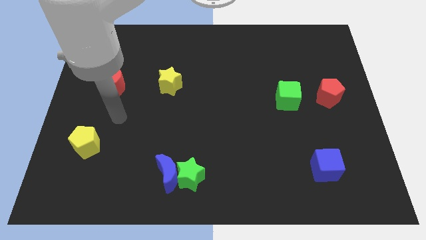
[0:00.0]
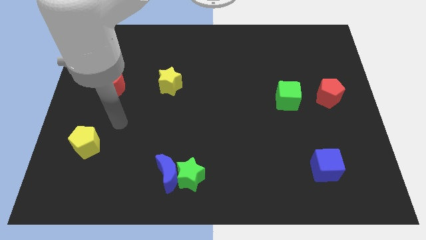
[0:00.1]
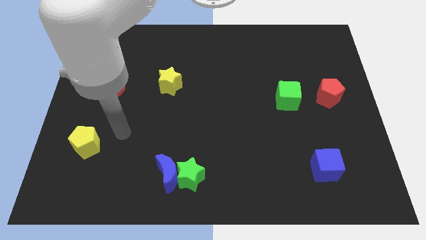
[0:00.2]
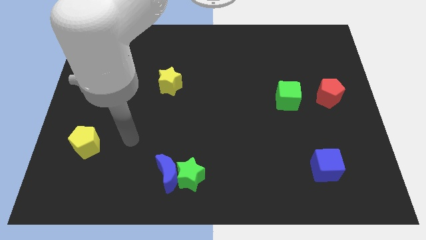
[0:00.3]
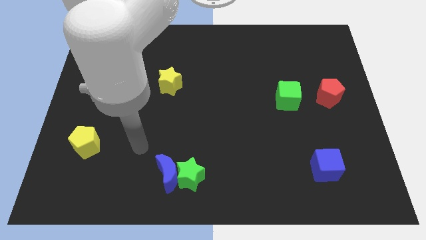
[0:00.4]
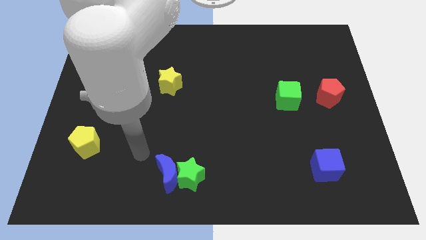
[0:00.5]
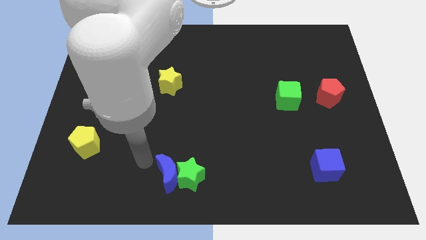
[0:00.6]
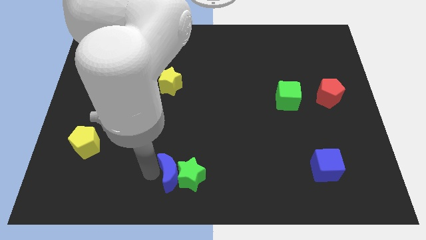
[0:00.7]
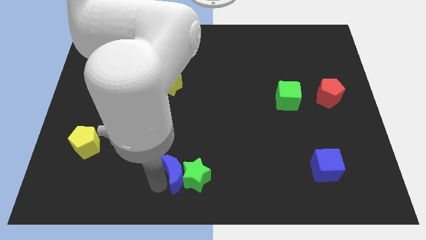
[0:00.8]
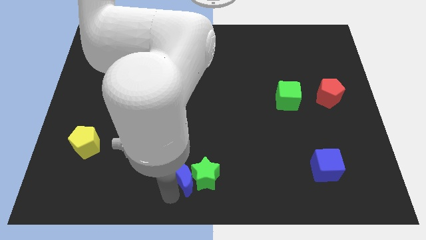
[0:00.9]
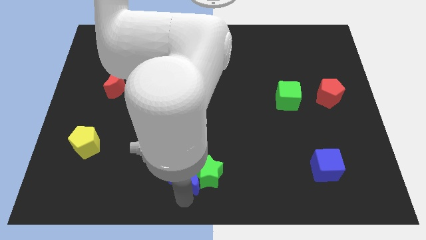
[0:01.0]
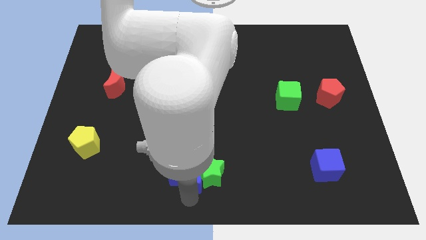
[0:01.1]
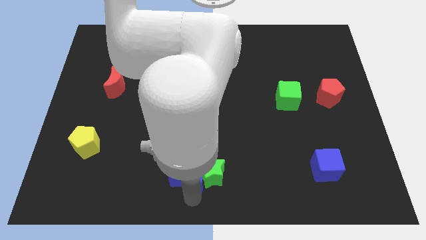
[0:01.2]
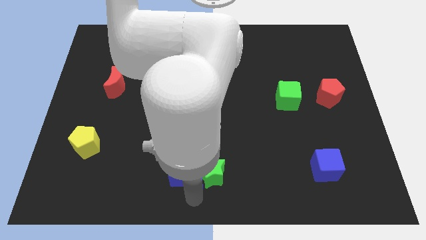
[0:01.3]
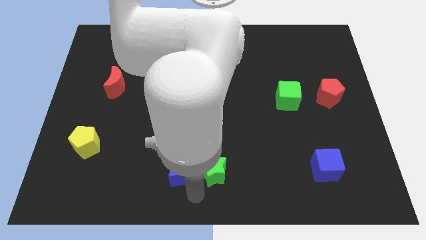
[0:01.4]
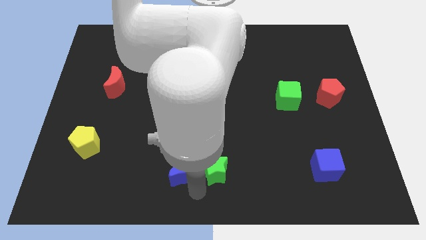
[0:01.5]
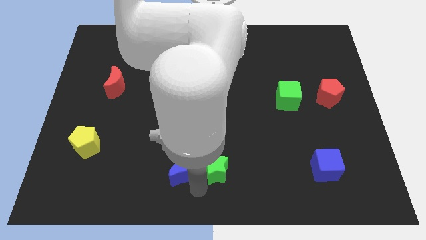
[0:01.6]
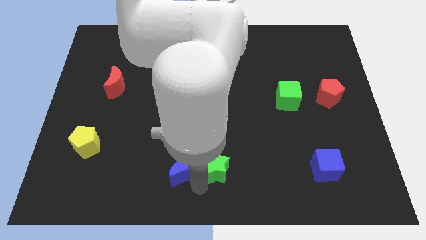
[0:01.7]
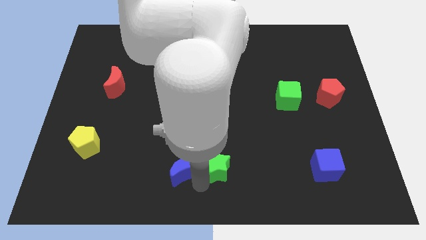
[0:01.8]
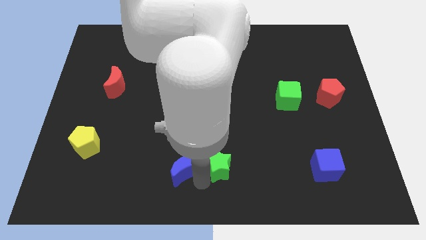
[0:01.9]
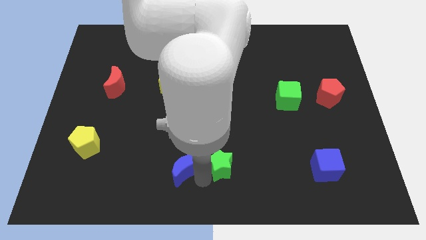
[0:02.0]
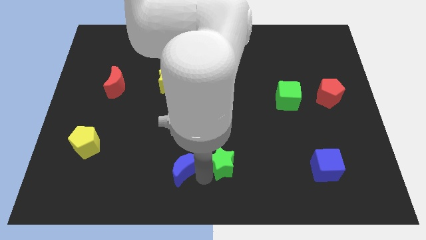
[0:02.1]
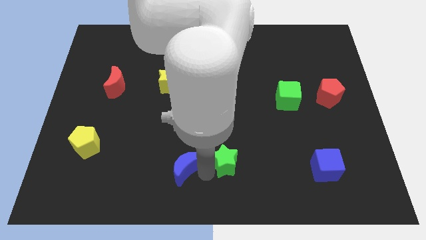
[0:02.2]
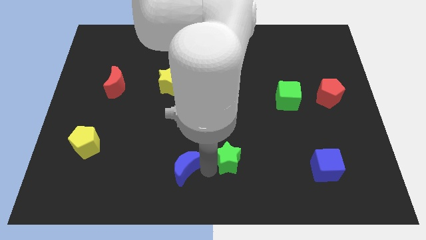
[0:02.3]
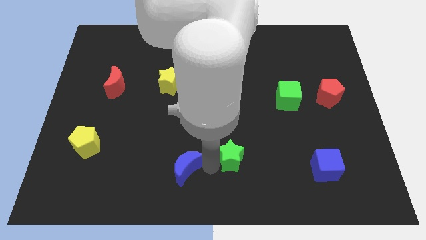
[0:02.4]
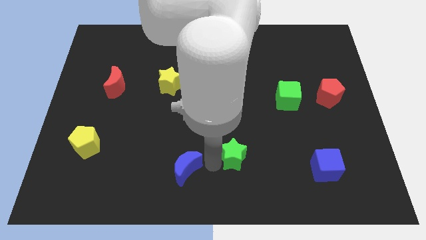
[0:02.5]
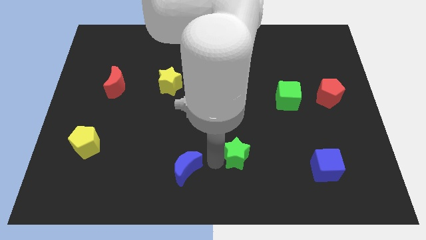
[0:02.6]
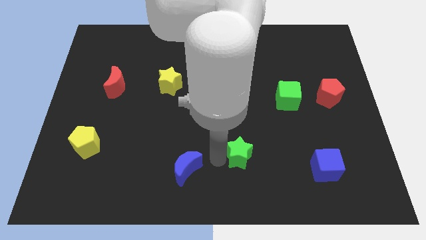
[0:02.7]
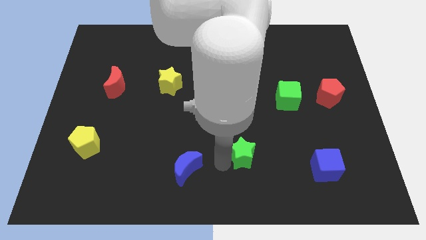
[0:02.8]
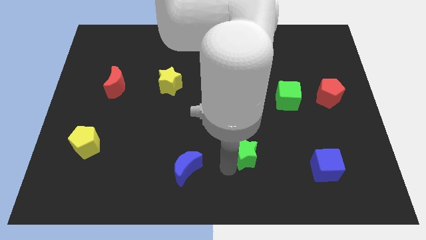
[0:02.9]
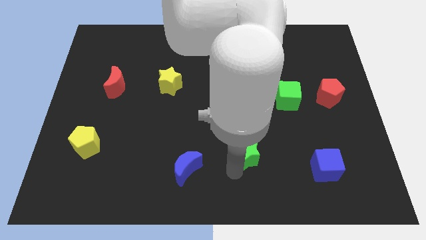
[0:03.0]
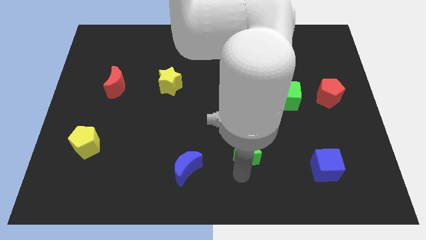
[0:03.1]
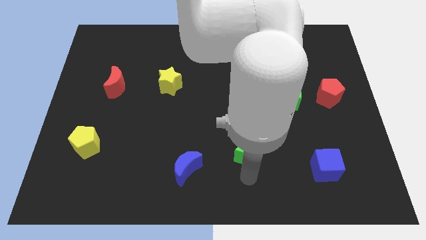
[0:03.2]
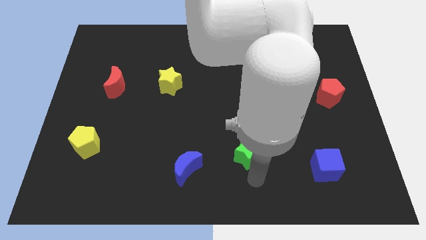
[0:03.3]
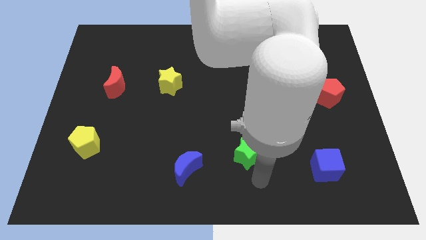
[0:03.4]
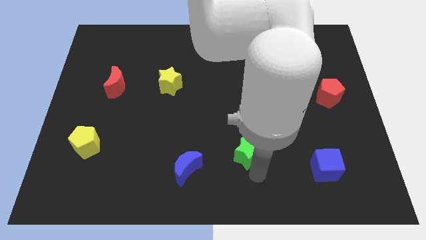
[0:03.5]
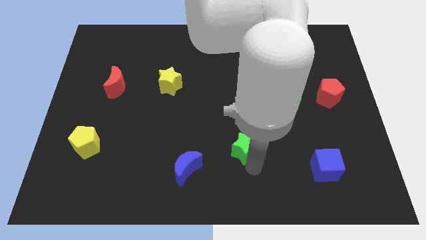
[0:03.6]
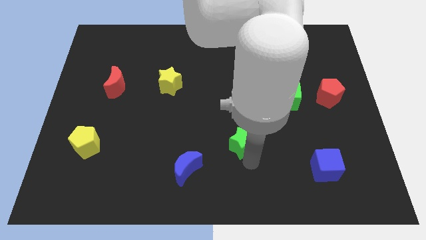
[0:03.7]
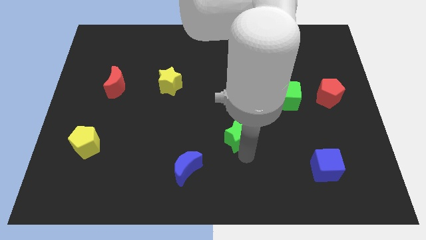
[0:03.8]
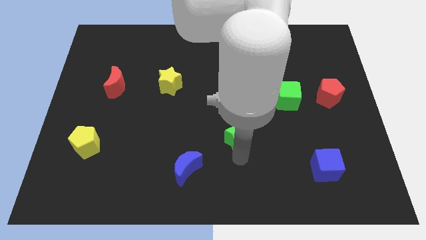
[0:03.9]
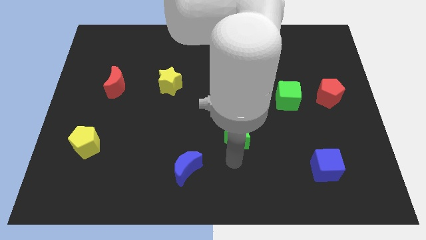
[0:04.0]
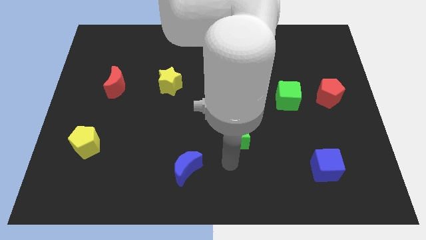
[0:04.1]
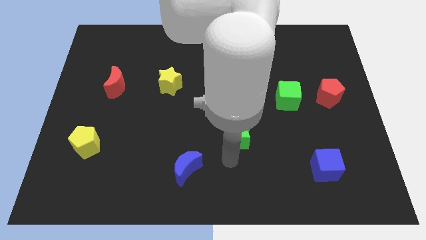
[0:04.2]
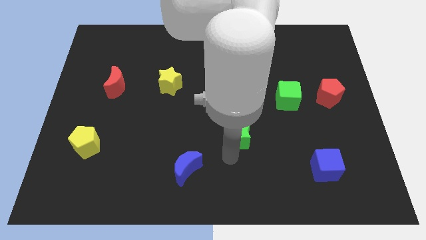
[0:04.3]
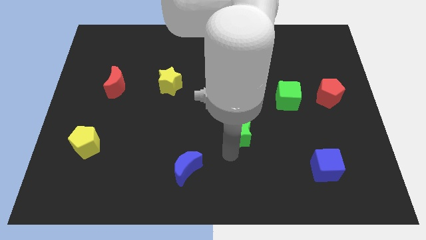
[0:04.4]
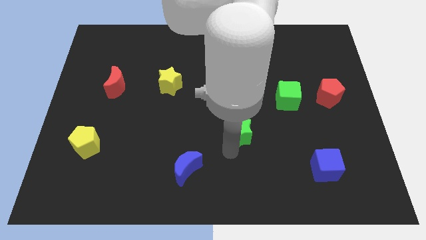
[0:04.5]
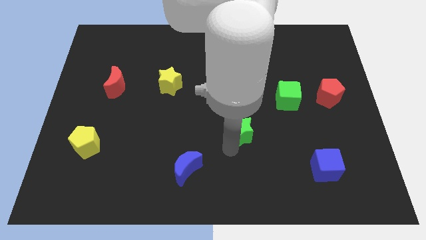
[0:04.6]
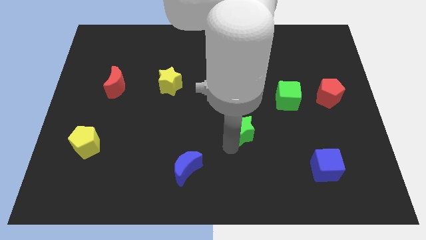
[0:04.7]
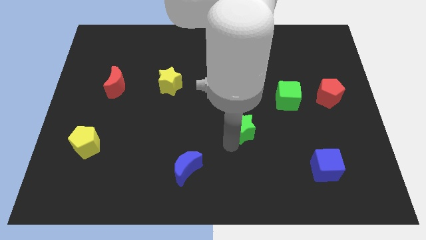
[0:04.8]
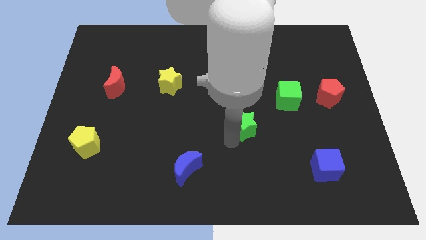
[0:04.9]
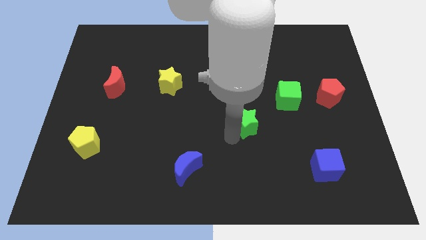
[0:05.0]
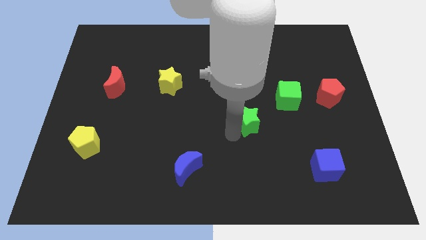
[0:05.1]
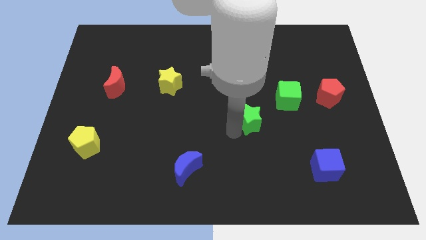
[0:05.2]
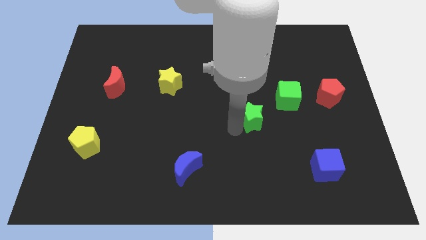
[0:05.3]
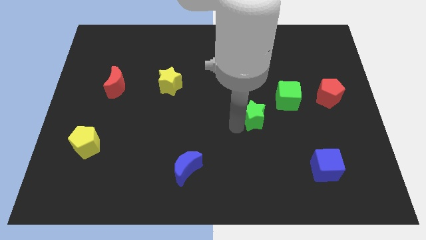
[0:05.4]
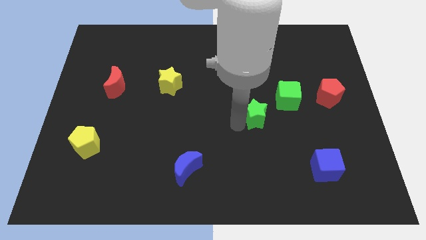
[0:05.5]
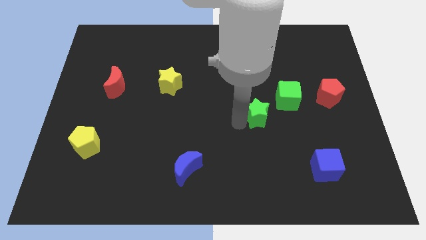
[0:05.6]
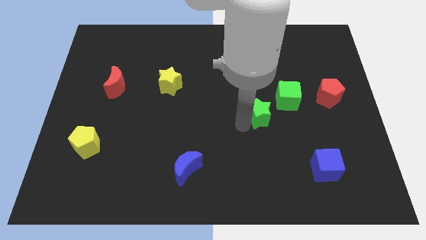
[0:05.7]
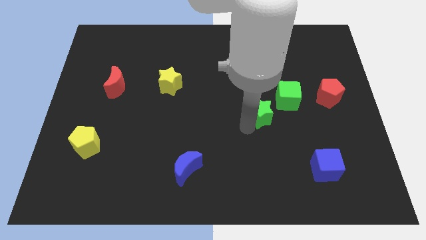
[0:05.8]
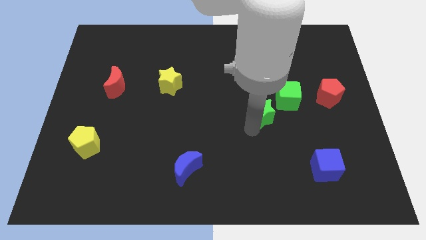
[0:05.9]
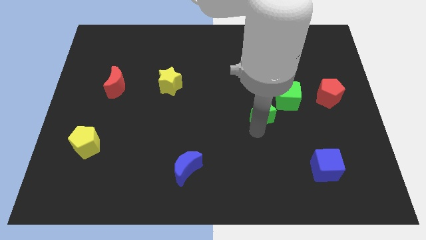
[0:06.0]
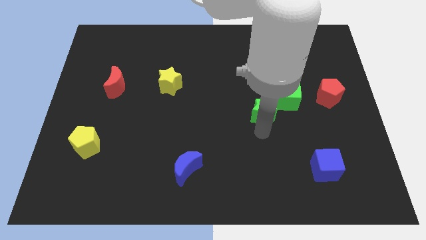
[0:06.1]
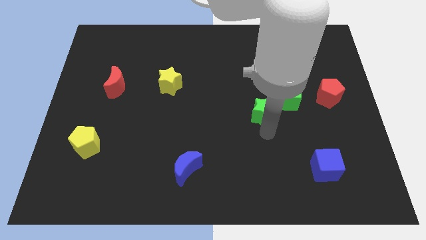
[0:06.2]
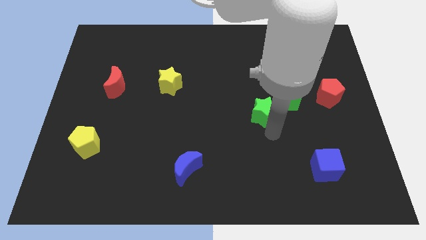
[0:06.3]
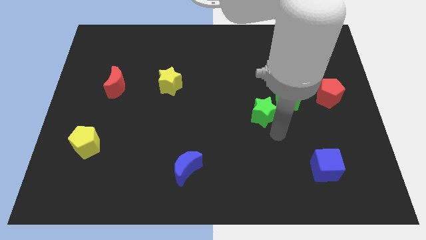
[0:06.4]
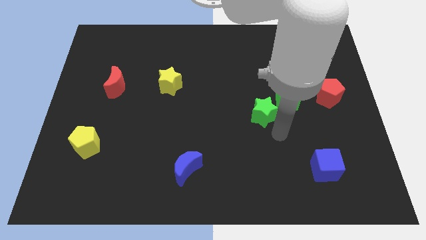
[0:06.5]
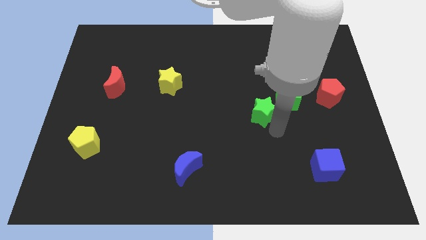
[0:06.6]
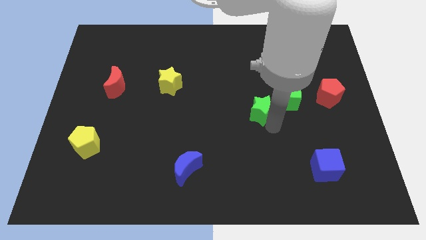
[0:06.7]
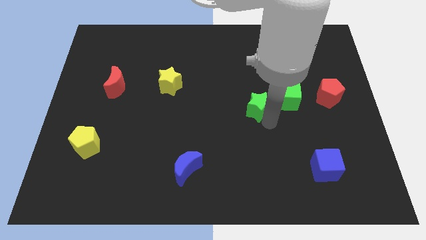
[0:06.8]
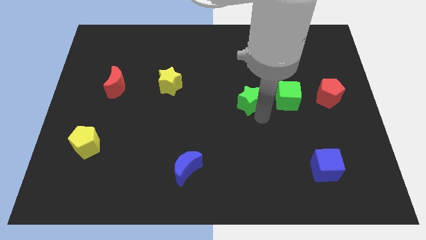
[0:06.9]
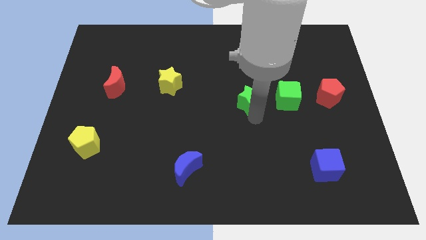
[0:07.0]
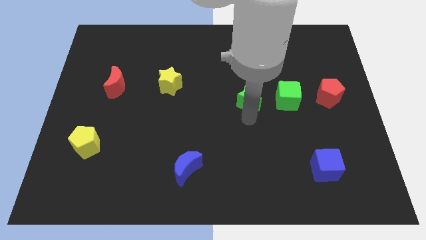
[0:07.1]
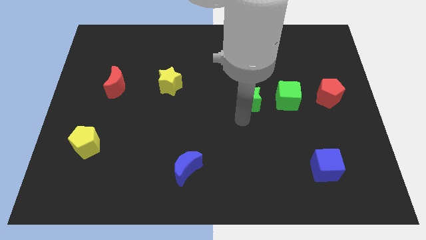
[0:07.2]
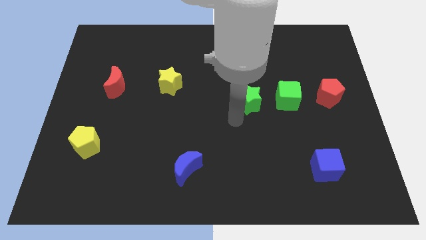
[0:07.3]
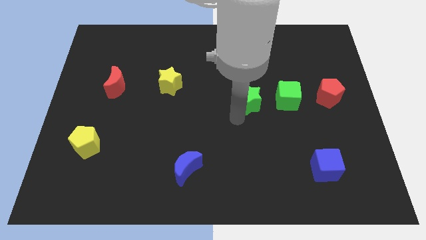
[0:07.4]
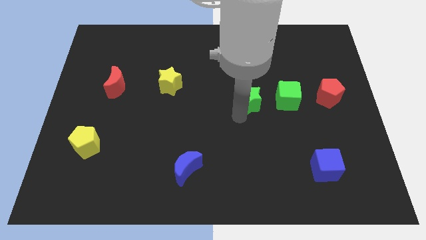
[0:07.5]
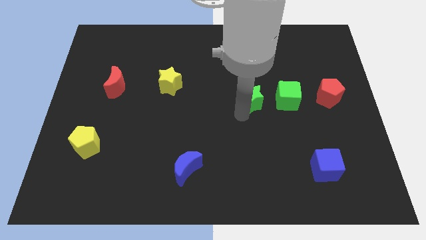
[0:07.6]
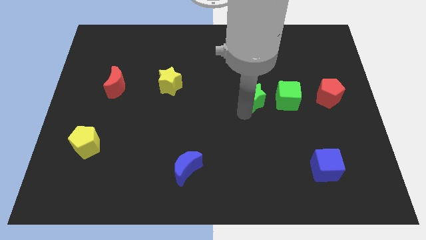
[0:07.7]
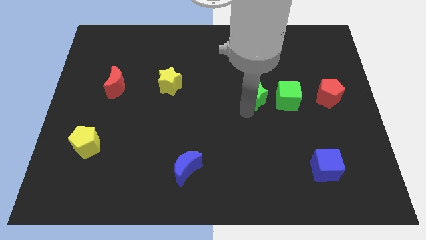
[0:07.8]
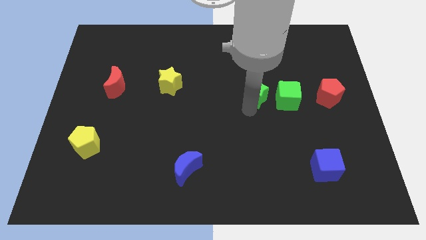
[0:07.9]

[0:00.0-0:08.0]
put the green star diagonally up and to the left of the green cube

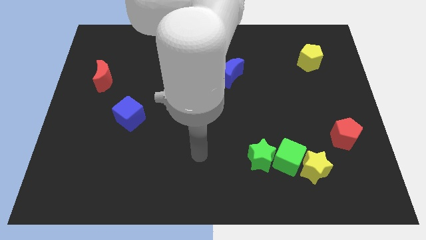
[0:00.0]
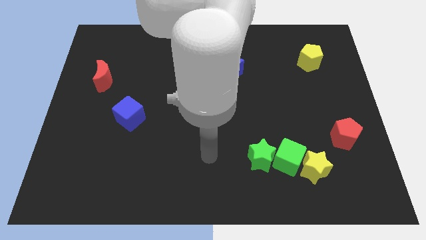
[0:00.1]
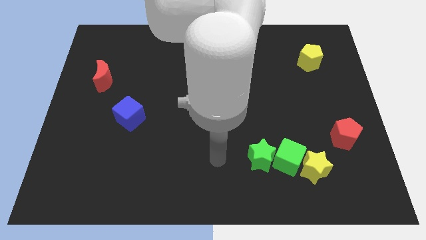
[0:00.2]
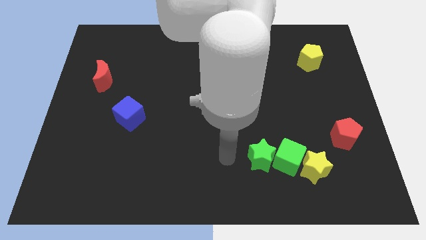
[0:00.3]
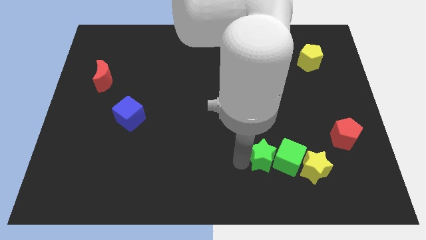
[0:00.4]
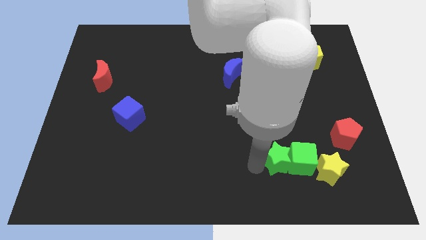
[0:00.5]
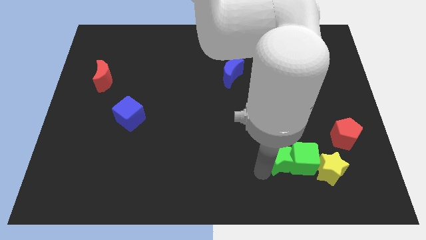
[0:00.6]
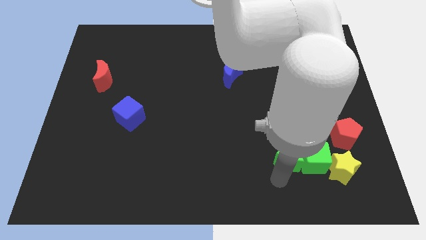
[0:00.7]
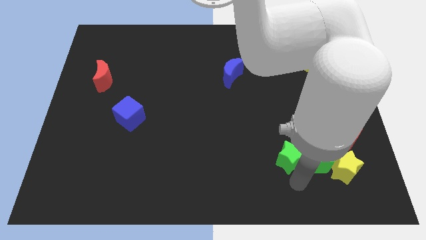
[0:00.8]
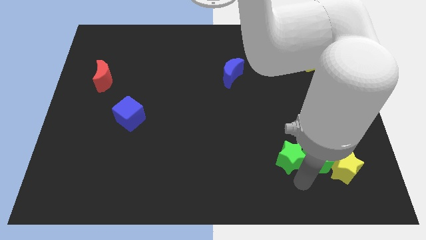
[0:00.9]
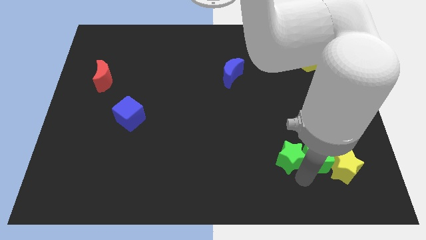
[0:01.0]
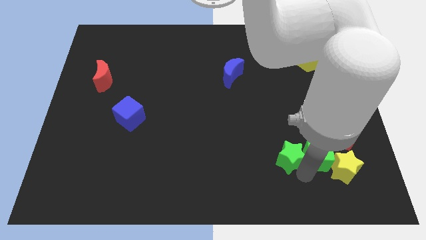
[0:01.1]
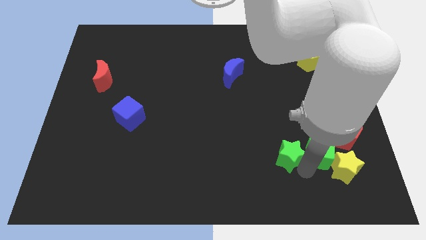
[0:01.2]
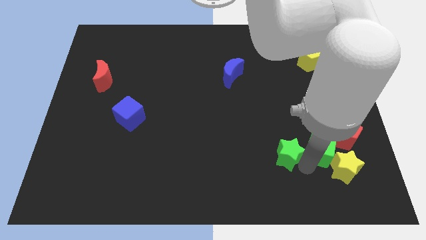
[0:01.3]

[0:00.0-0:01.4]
push the green cube above the yellow star
